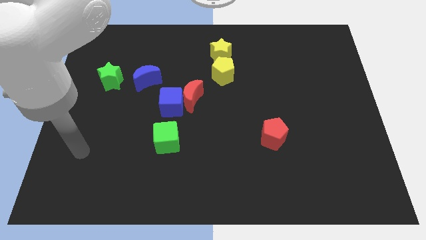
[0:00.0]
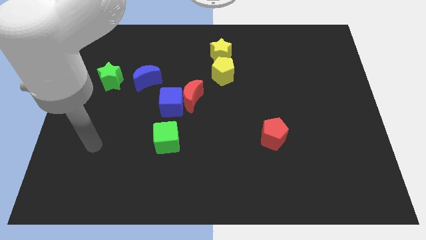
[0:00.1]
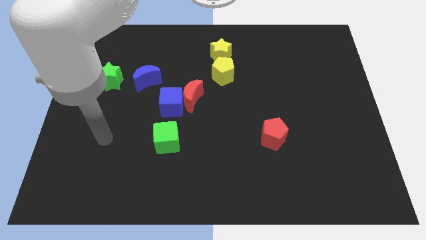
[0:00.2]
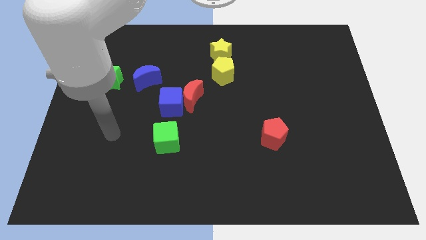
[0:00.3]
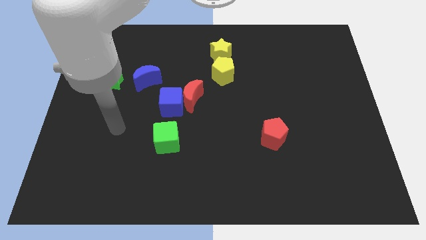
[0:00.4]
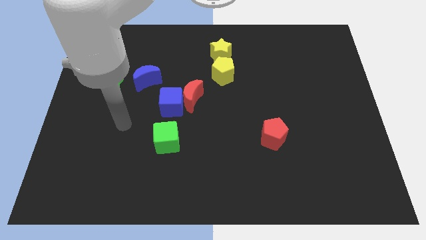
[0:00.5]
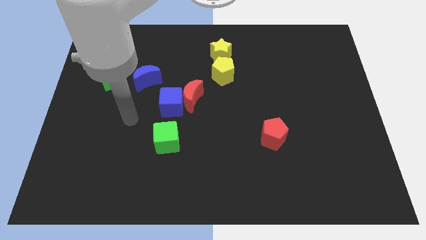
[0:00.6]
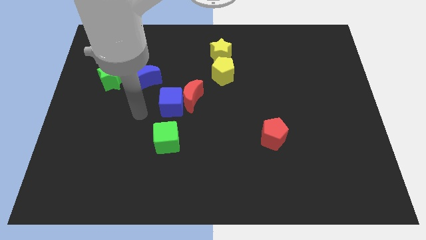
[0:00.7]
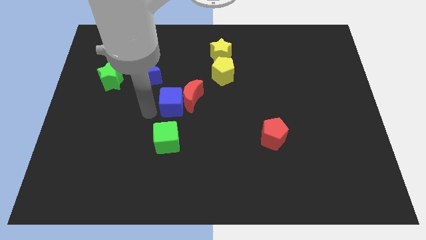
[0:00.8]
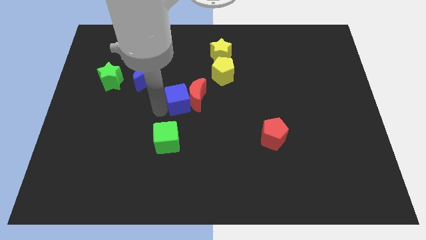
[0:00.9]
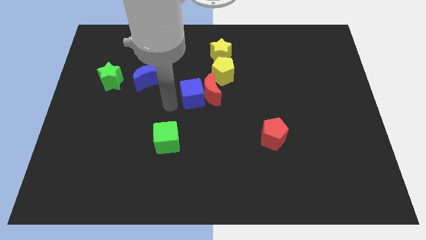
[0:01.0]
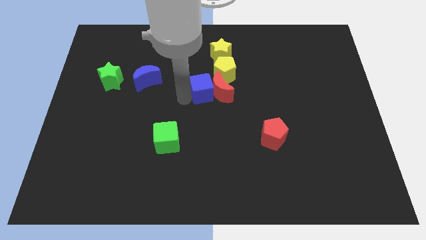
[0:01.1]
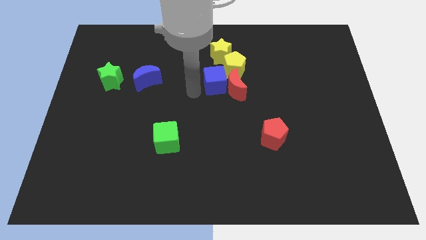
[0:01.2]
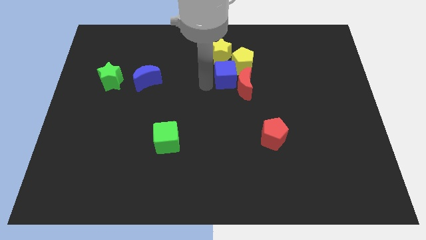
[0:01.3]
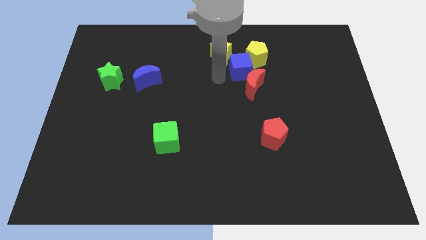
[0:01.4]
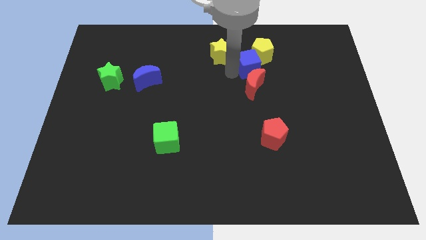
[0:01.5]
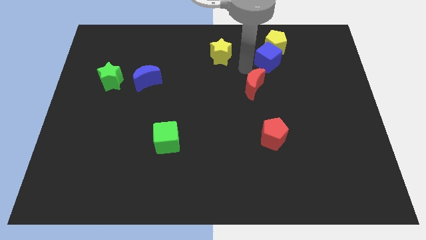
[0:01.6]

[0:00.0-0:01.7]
separate the red moon from the blue cube

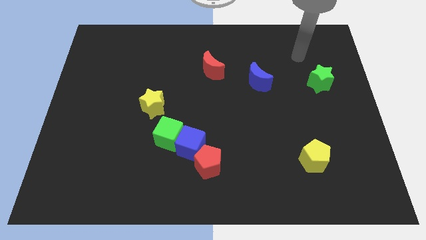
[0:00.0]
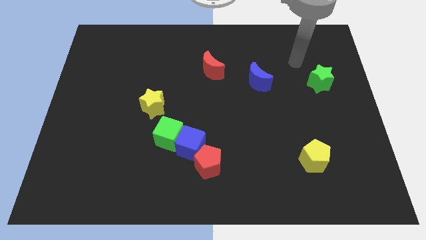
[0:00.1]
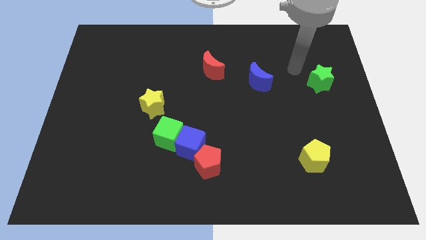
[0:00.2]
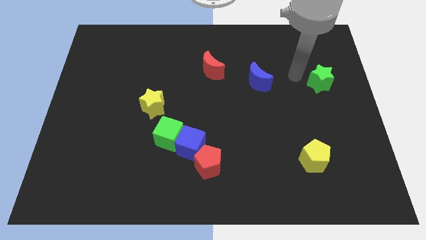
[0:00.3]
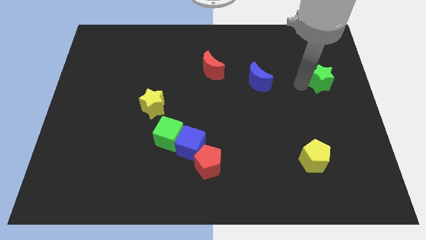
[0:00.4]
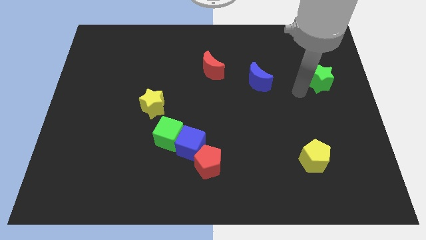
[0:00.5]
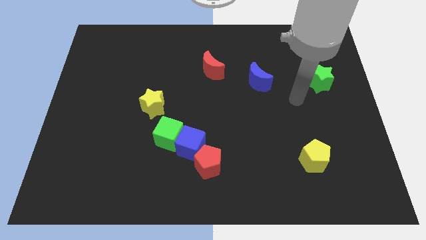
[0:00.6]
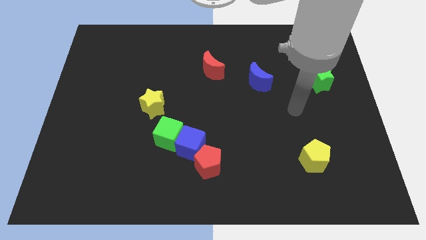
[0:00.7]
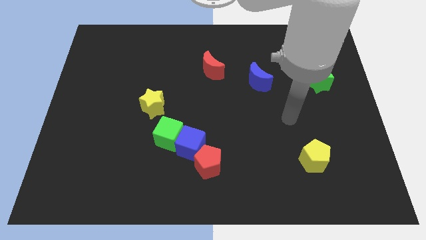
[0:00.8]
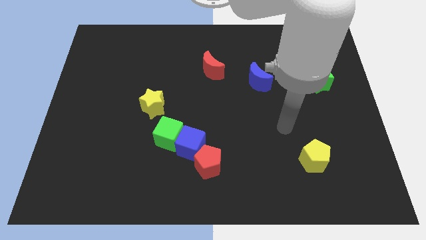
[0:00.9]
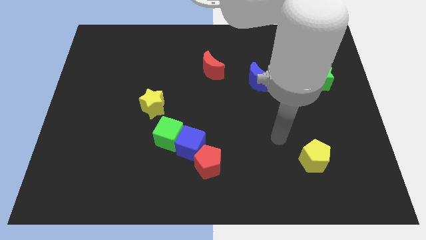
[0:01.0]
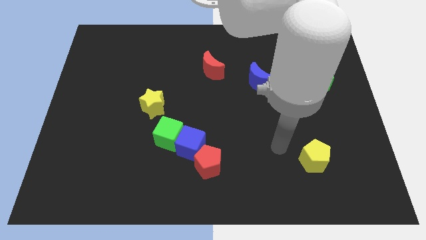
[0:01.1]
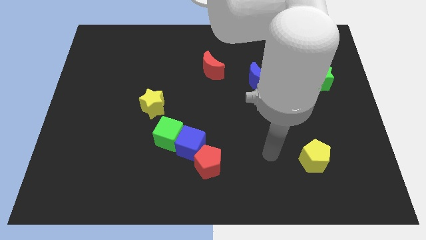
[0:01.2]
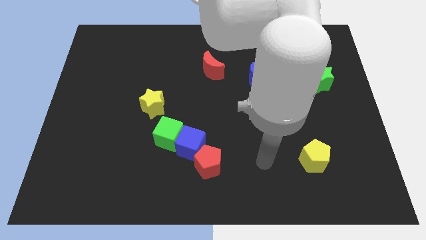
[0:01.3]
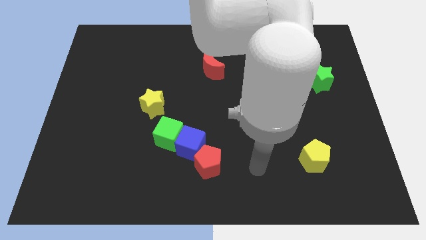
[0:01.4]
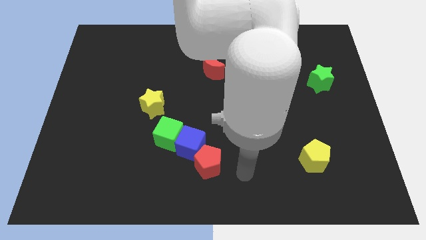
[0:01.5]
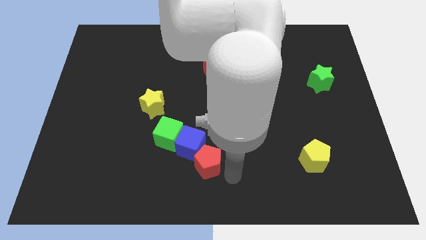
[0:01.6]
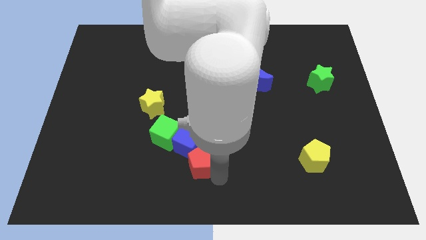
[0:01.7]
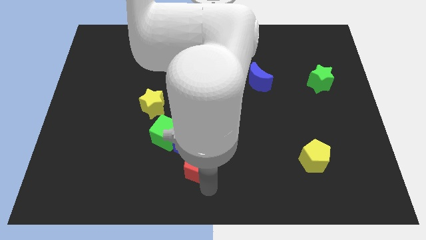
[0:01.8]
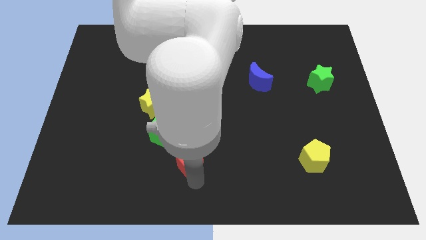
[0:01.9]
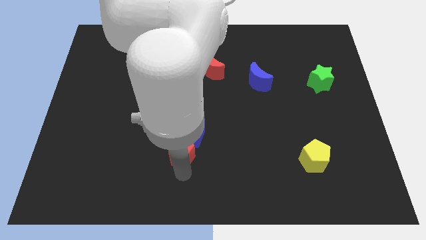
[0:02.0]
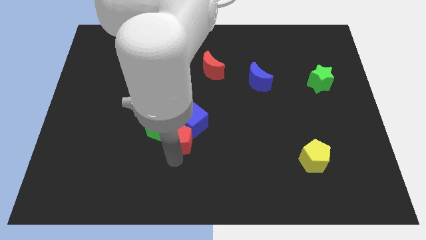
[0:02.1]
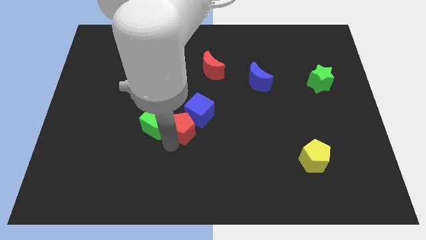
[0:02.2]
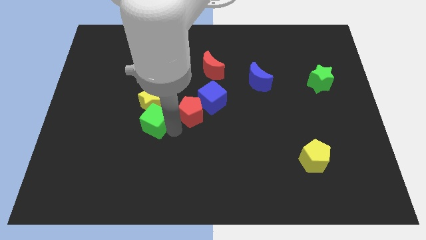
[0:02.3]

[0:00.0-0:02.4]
pull the blue cube apart from the green cube and red pentagon

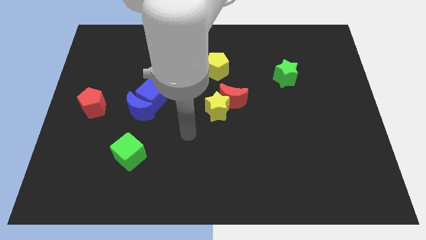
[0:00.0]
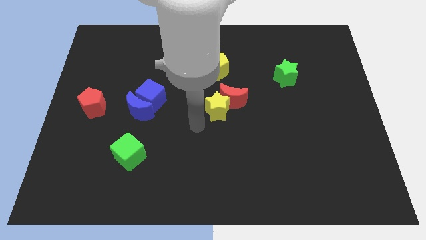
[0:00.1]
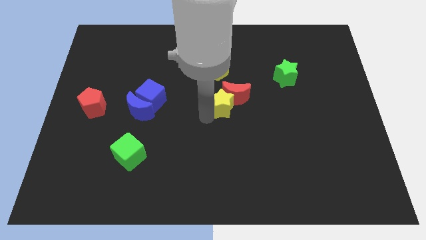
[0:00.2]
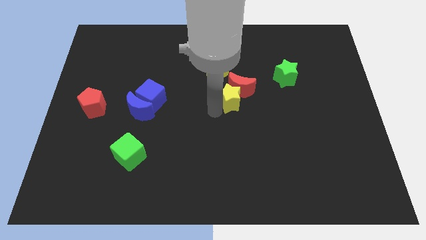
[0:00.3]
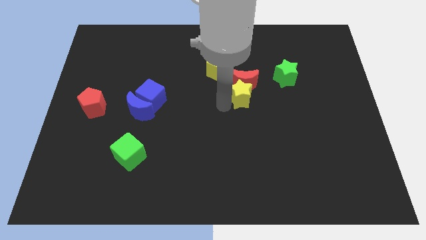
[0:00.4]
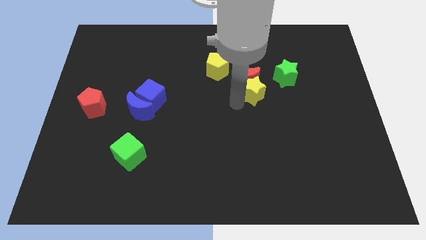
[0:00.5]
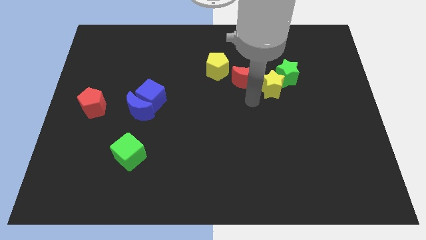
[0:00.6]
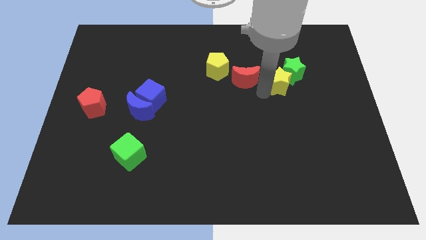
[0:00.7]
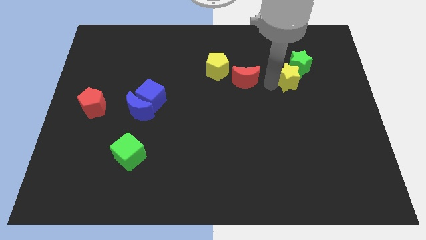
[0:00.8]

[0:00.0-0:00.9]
separate the red moon from the yellow star

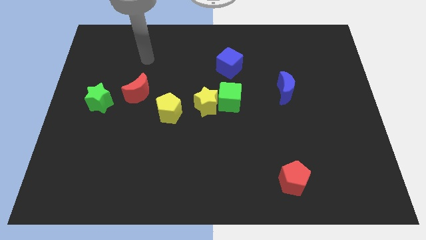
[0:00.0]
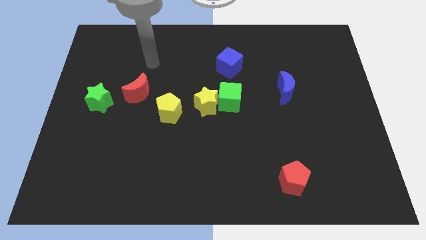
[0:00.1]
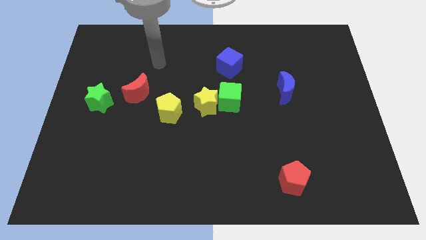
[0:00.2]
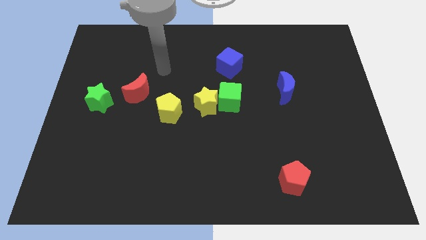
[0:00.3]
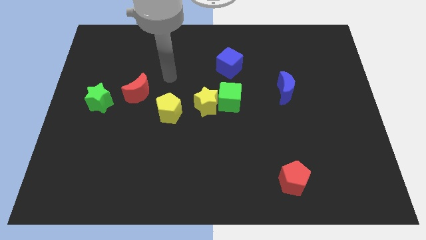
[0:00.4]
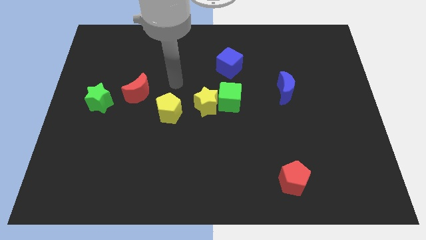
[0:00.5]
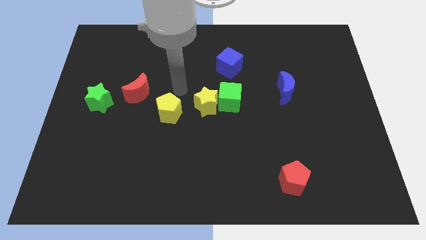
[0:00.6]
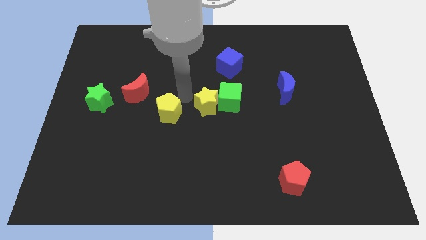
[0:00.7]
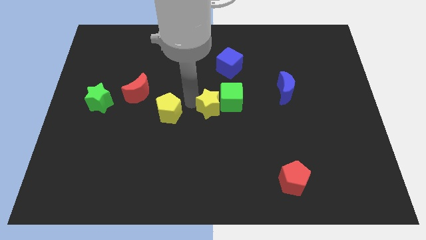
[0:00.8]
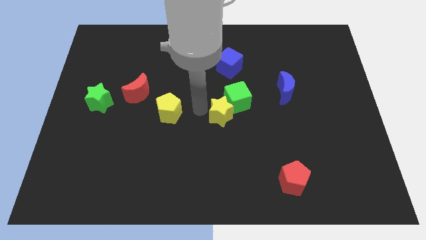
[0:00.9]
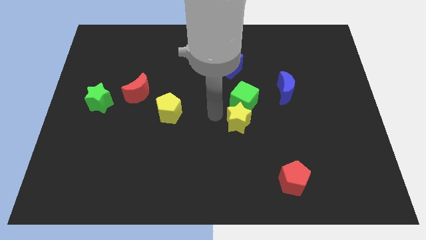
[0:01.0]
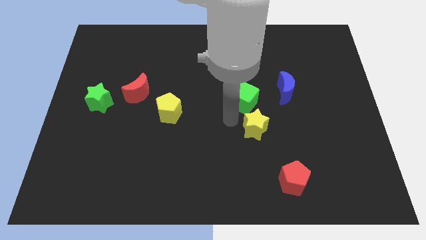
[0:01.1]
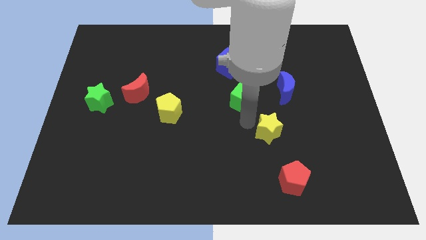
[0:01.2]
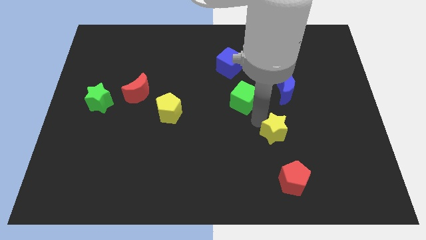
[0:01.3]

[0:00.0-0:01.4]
move the green cube away from the yellow star

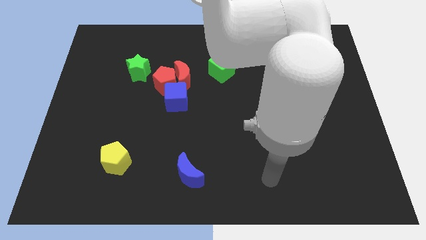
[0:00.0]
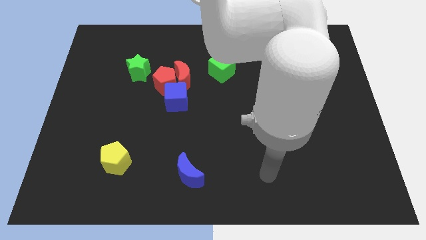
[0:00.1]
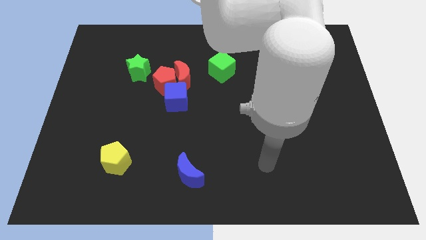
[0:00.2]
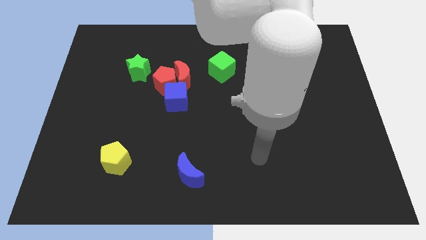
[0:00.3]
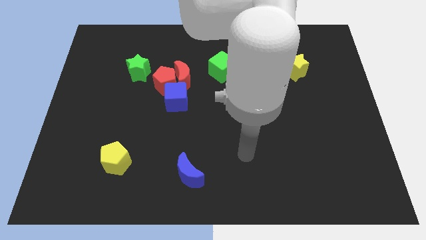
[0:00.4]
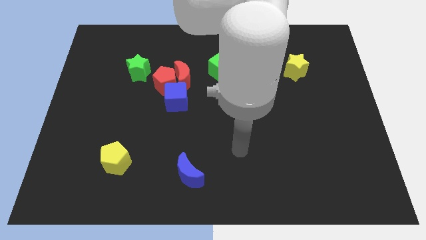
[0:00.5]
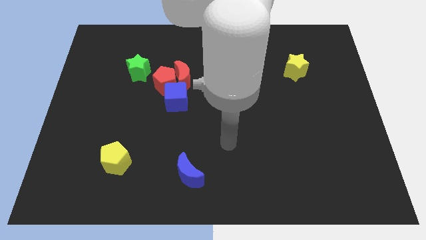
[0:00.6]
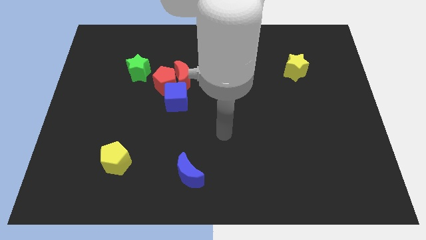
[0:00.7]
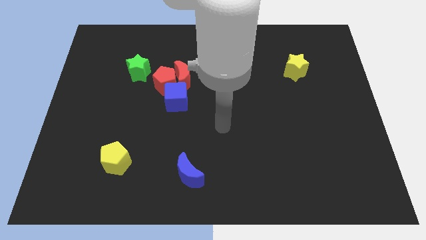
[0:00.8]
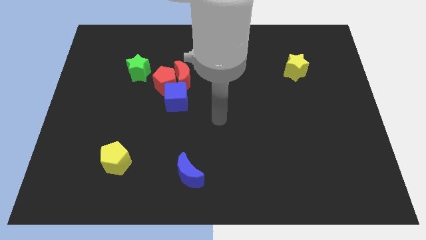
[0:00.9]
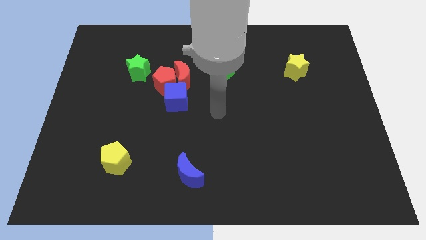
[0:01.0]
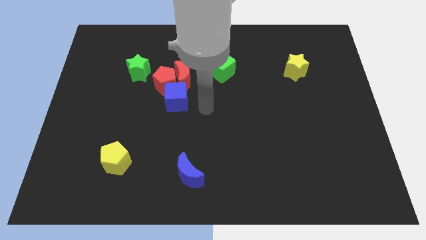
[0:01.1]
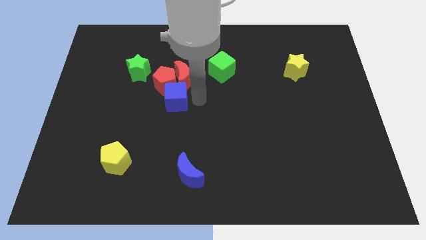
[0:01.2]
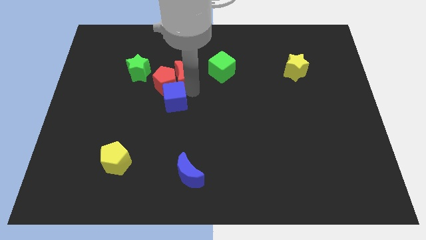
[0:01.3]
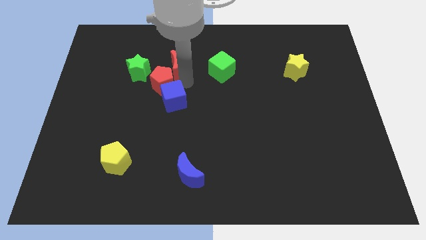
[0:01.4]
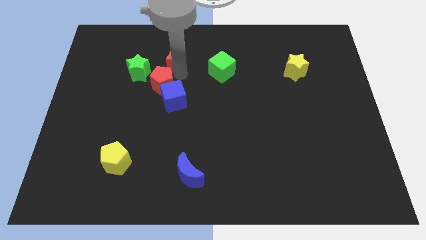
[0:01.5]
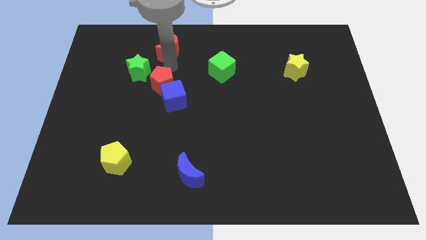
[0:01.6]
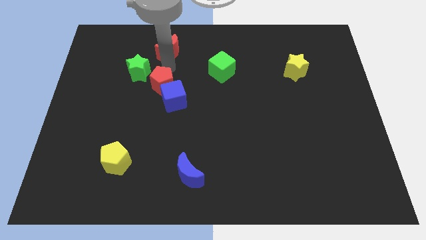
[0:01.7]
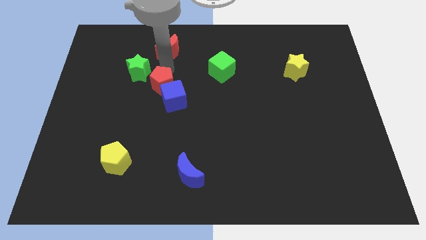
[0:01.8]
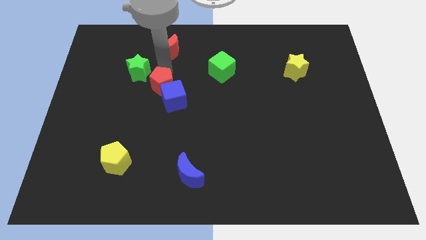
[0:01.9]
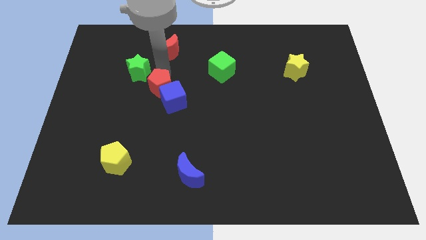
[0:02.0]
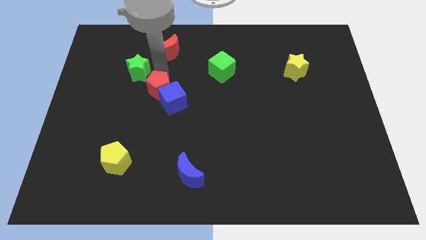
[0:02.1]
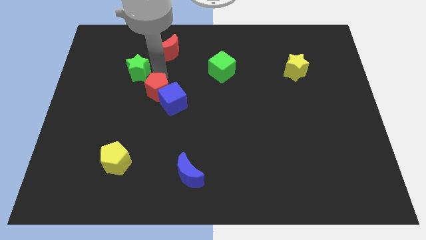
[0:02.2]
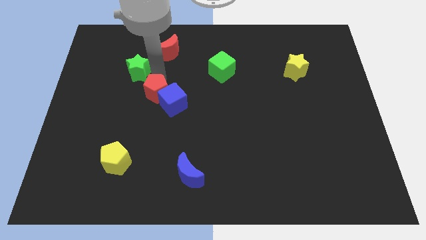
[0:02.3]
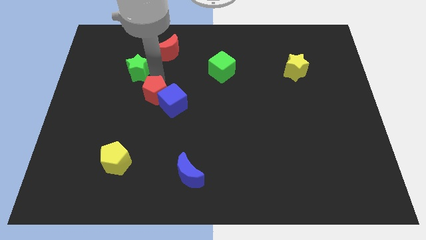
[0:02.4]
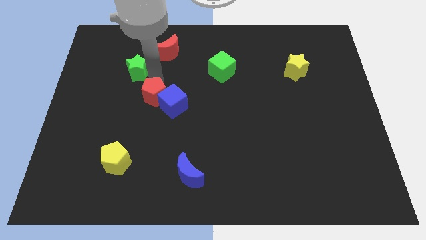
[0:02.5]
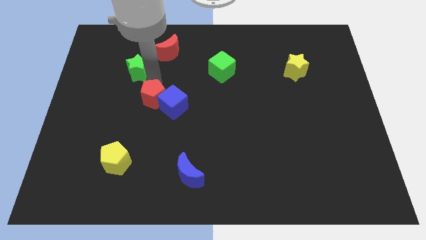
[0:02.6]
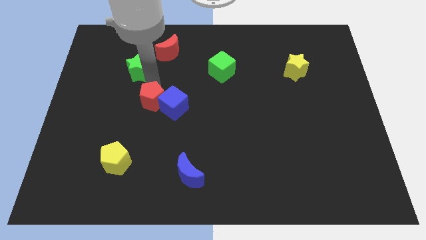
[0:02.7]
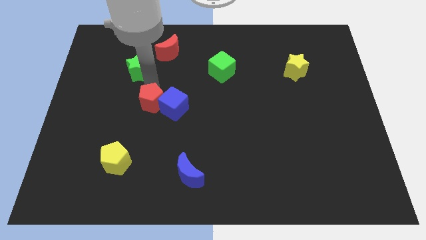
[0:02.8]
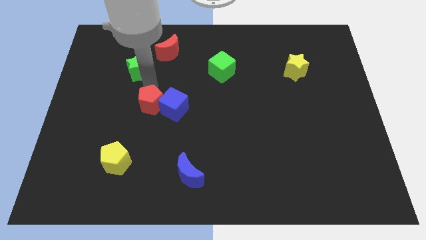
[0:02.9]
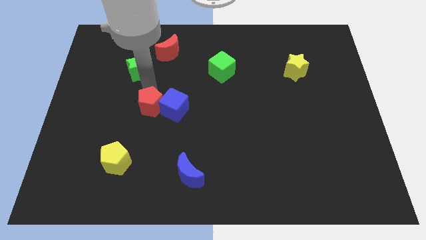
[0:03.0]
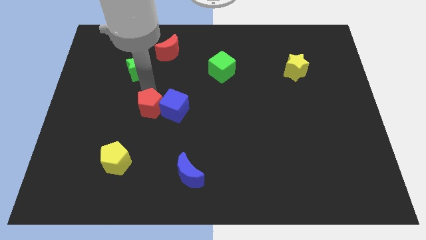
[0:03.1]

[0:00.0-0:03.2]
move the red pentagon away from the red moon, blue cube, and green star
